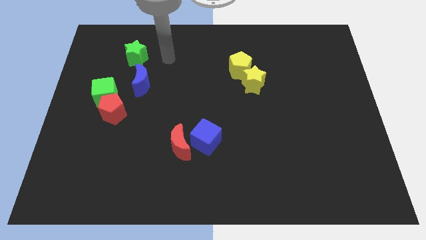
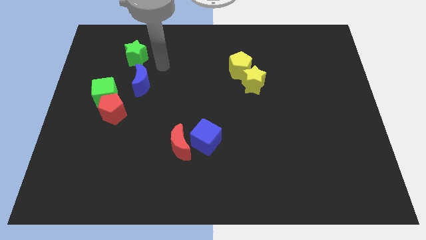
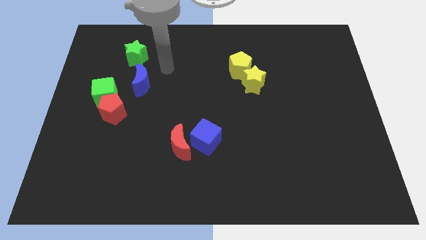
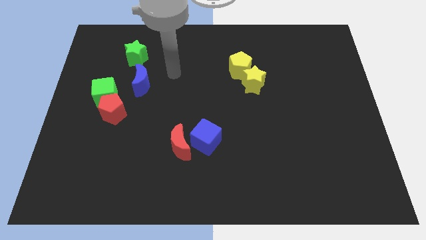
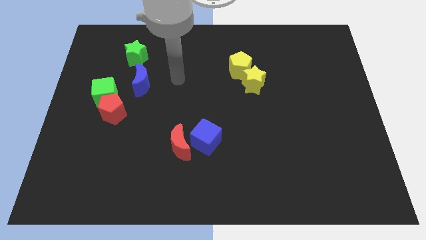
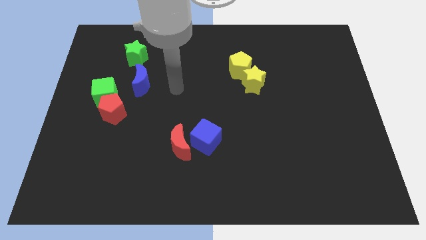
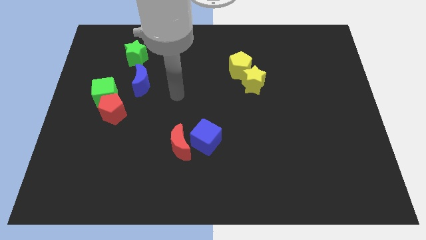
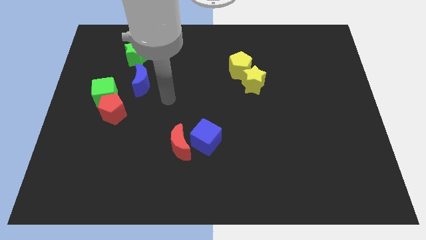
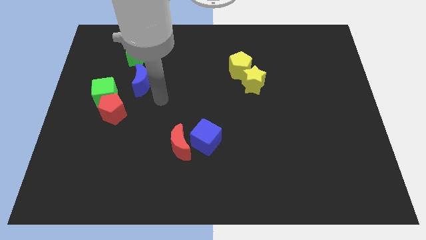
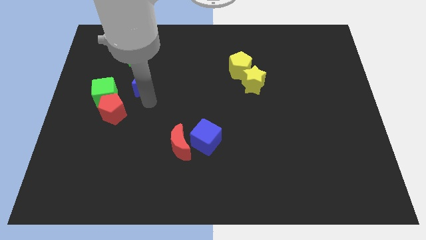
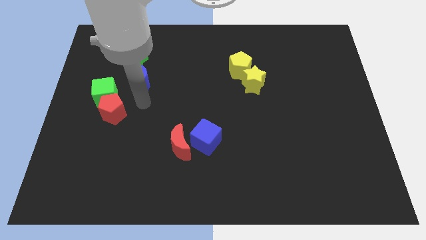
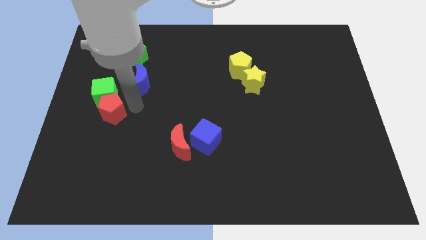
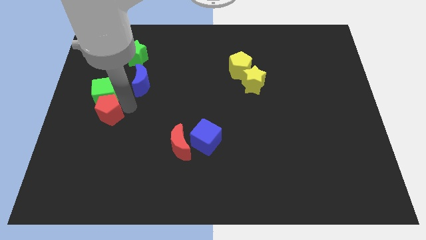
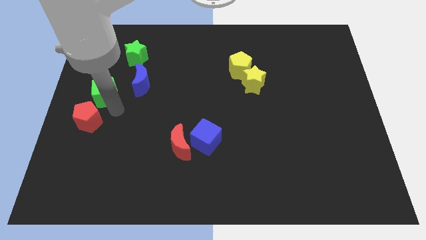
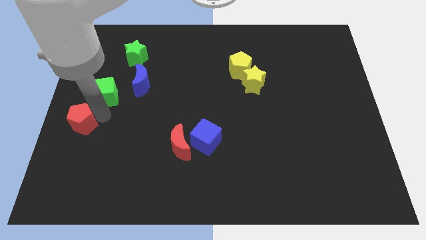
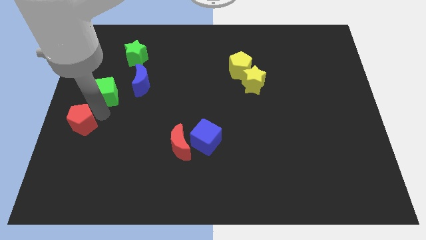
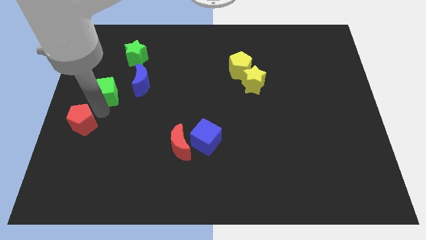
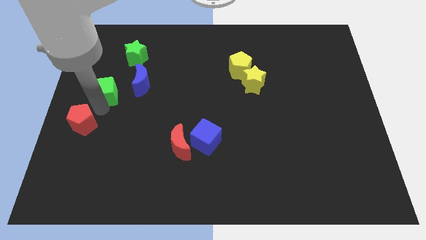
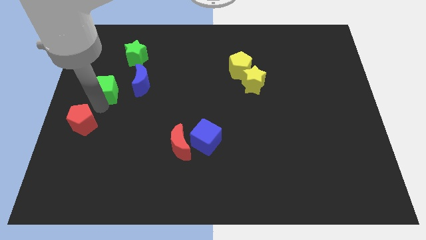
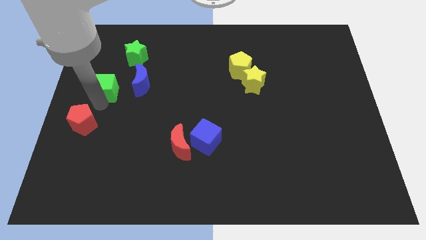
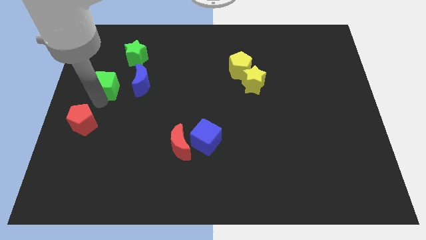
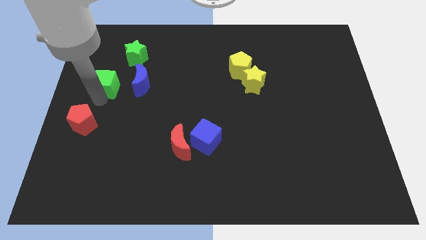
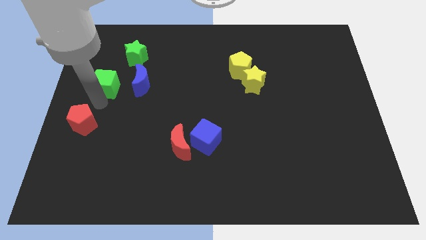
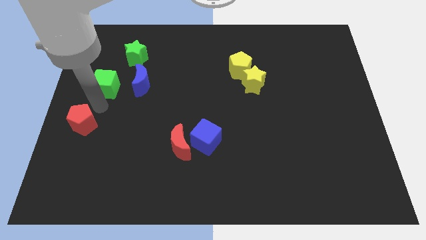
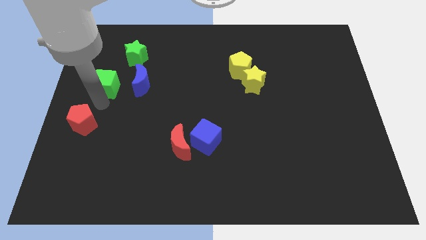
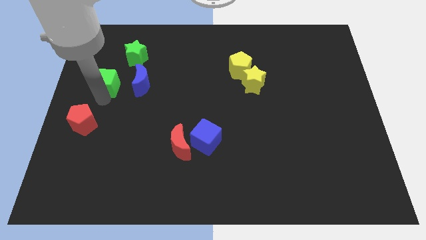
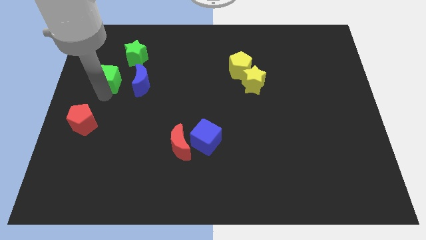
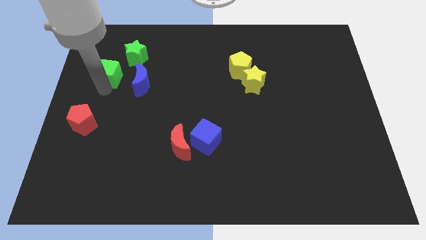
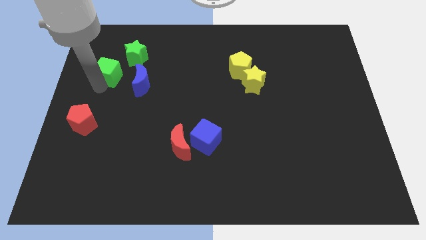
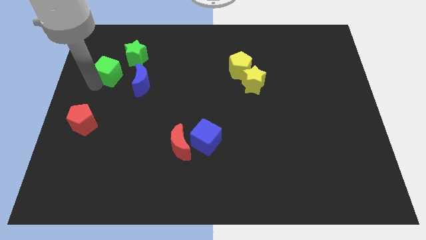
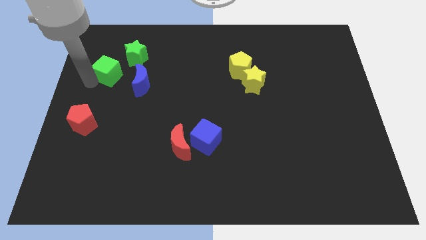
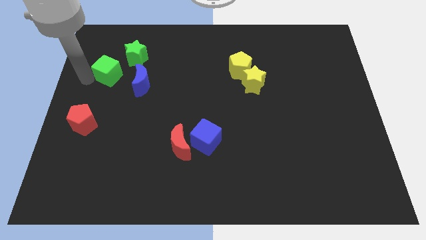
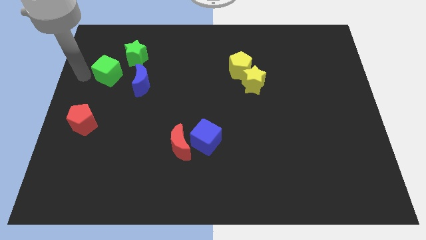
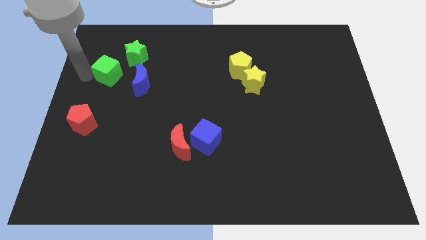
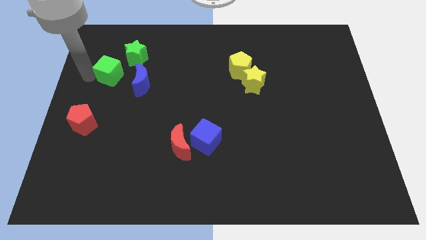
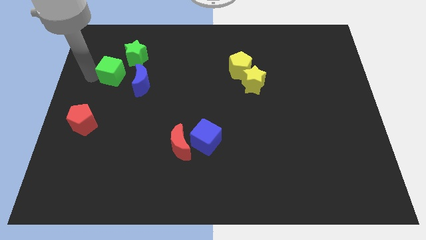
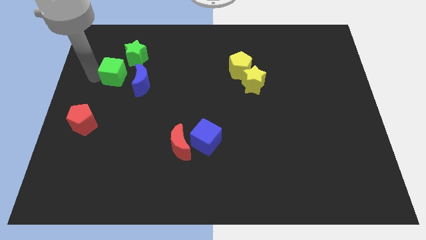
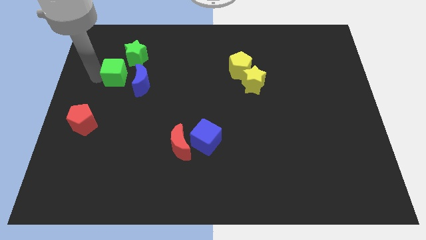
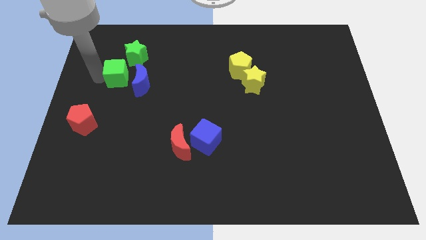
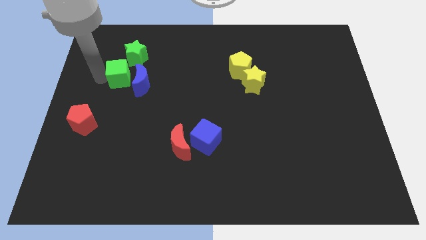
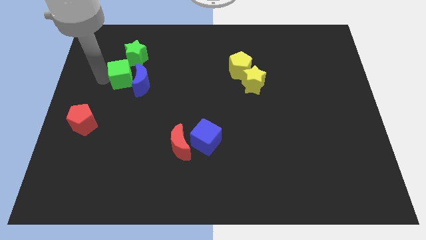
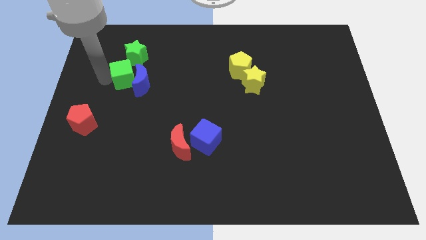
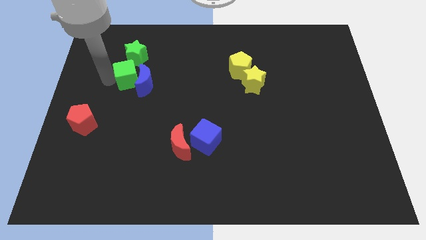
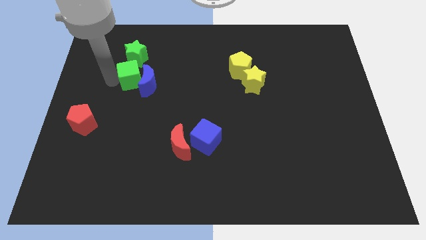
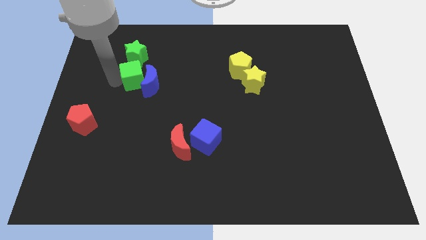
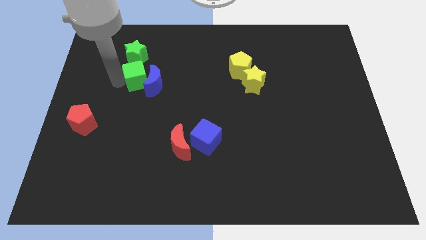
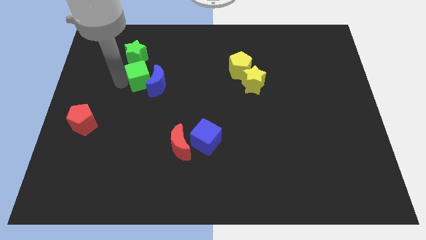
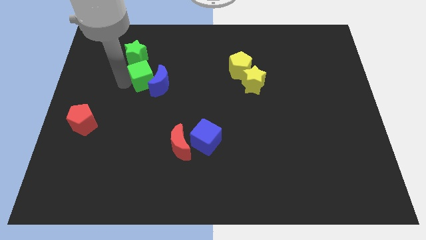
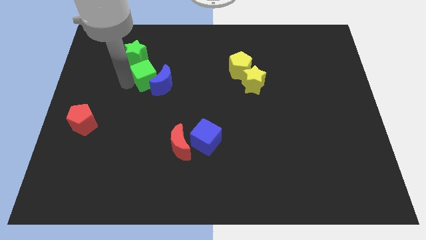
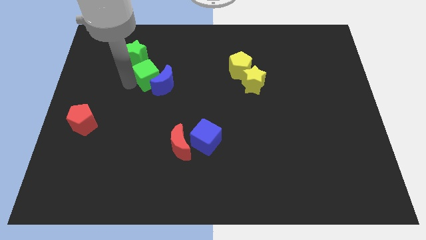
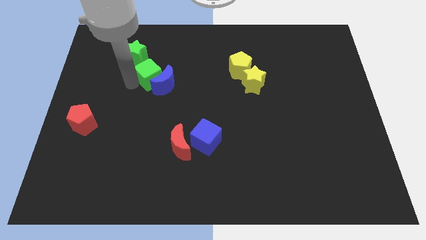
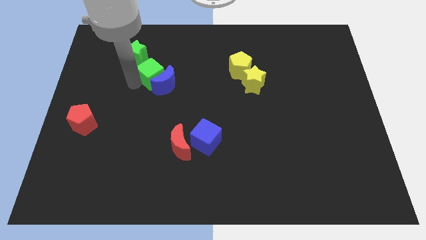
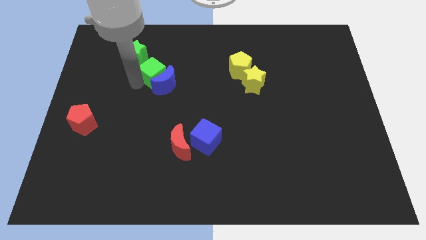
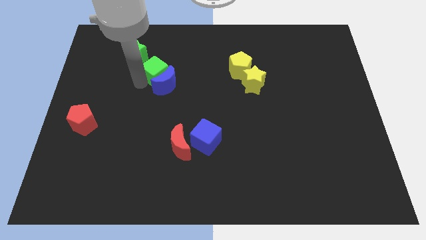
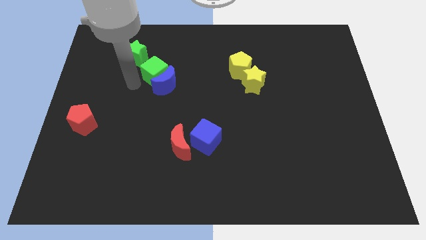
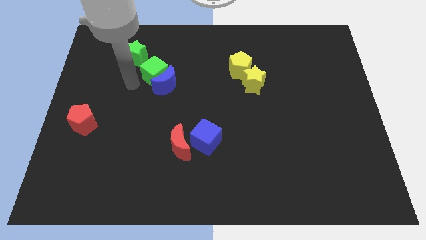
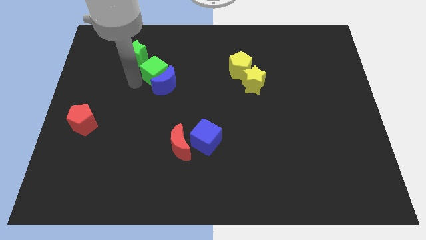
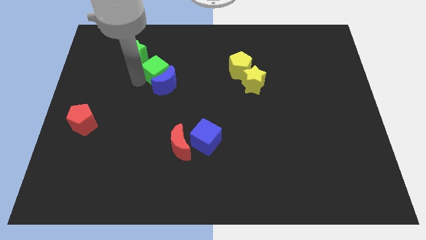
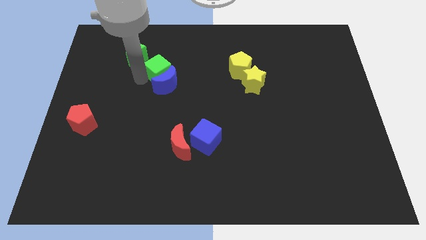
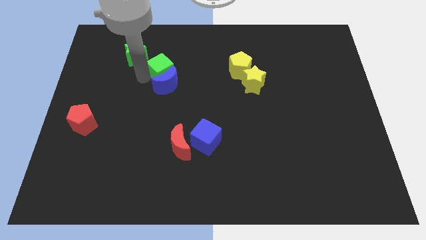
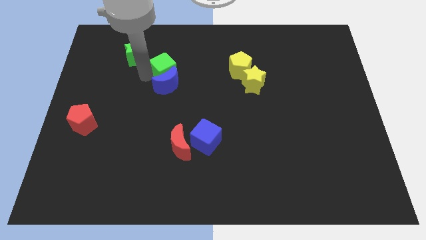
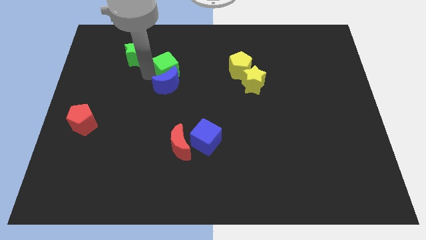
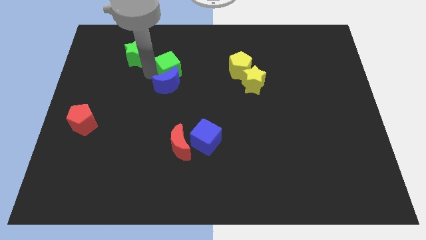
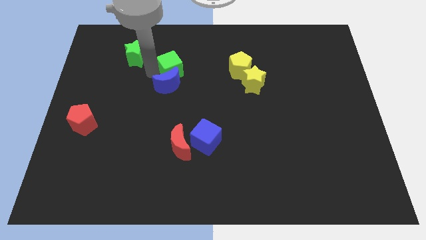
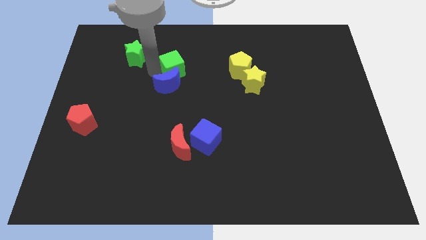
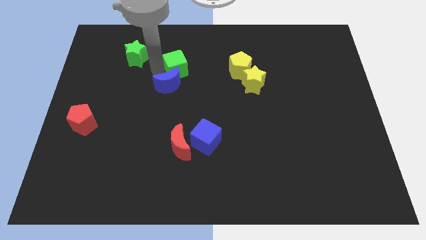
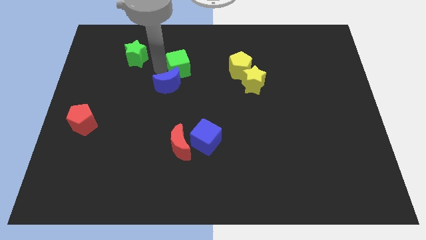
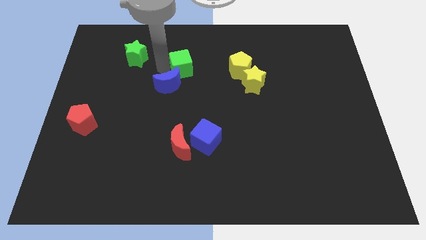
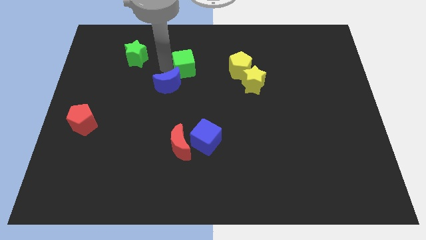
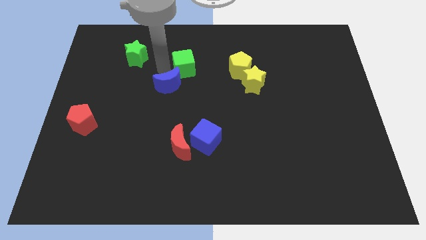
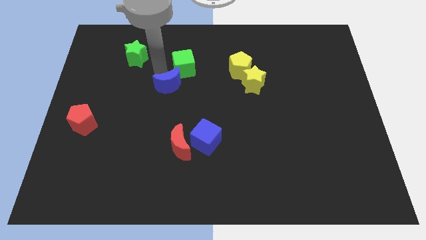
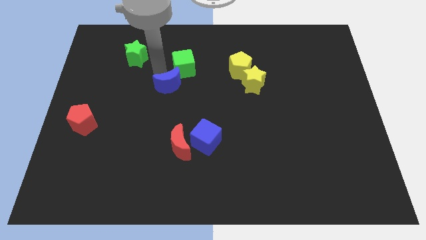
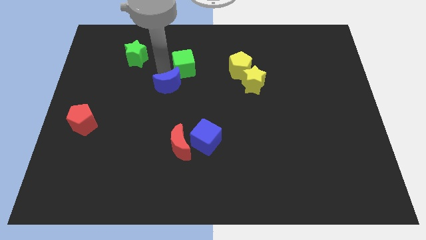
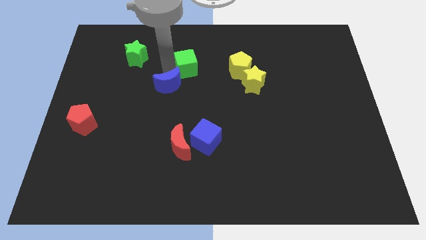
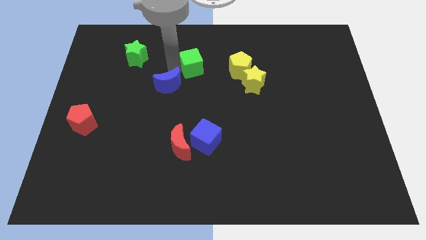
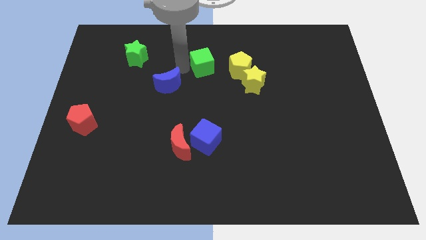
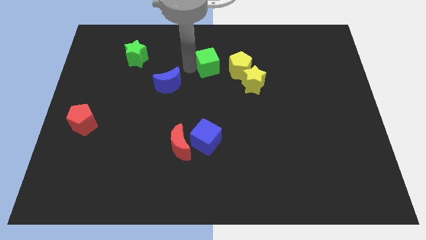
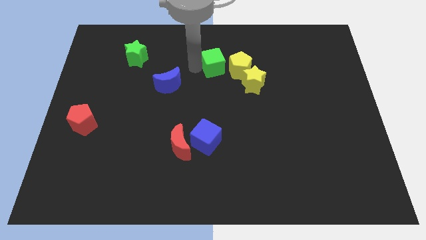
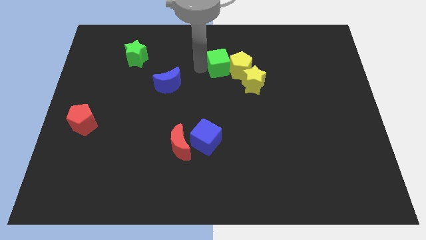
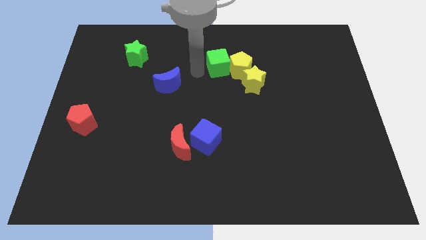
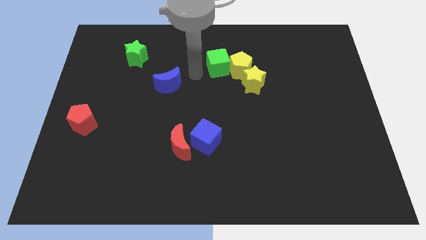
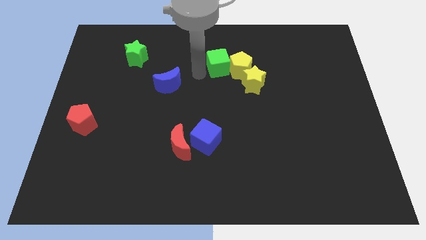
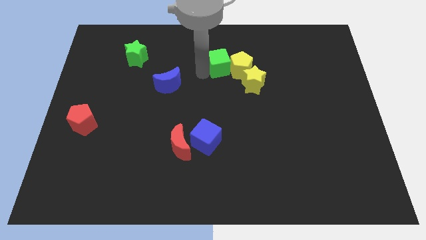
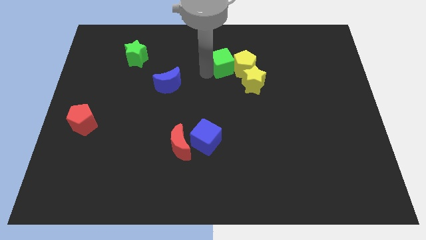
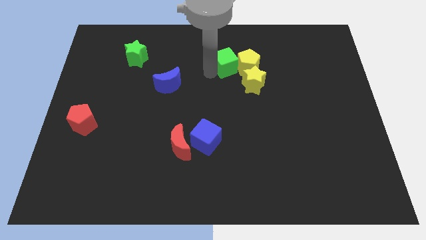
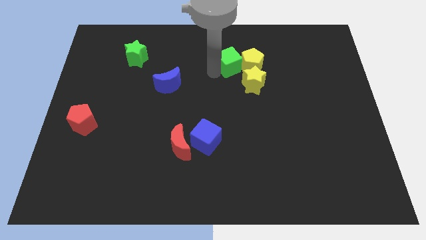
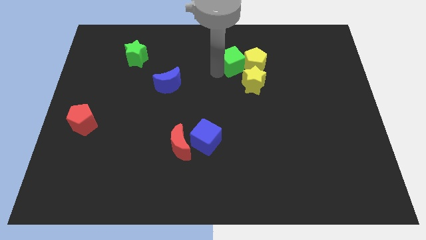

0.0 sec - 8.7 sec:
slide the green cube to the top side of the yellow star
